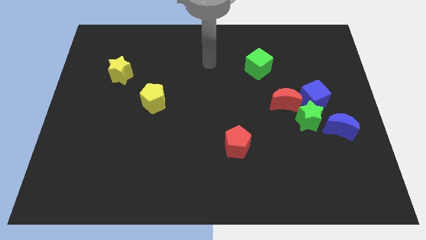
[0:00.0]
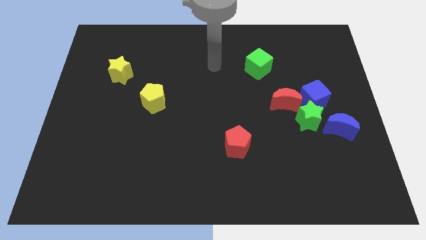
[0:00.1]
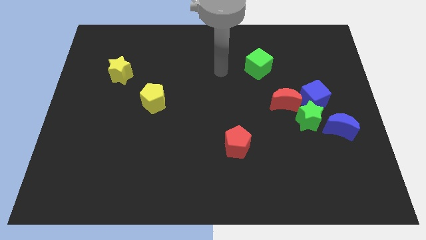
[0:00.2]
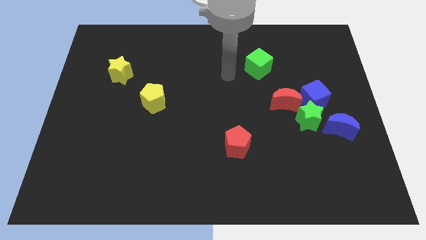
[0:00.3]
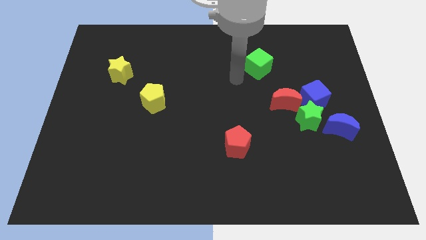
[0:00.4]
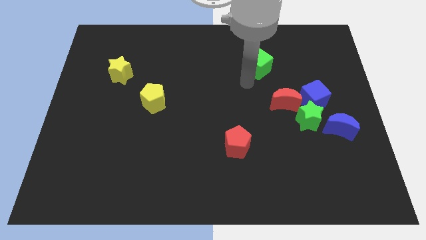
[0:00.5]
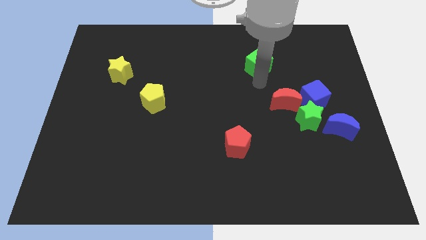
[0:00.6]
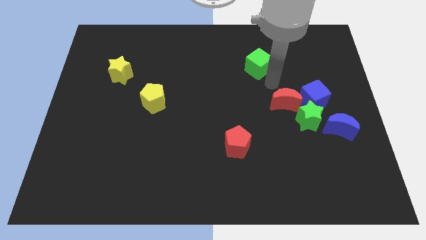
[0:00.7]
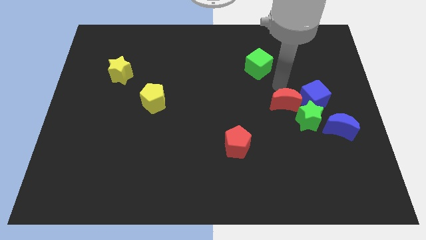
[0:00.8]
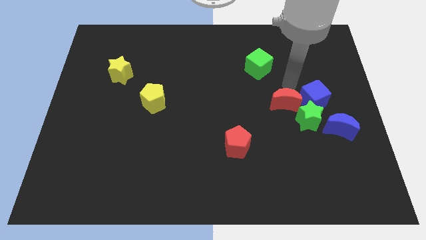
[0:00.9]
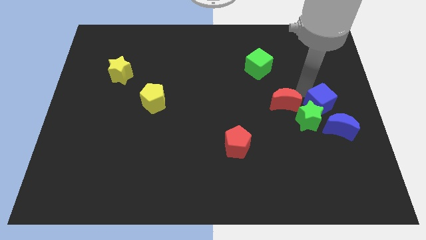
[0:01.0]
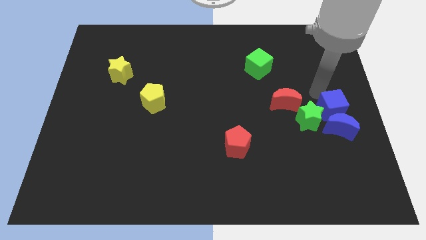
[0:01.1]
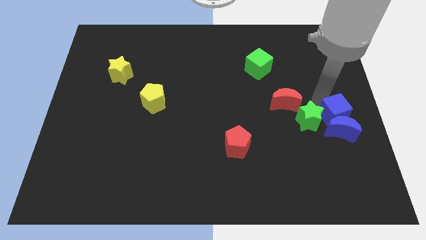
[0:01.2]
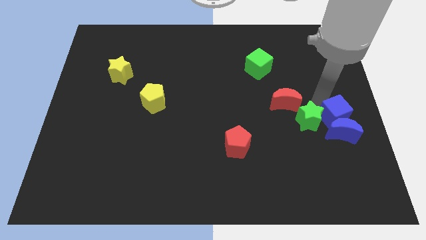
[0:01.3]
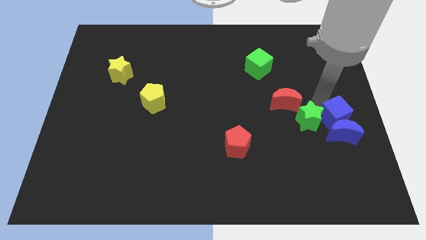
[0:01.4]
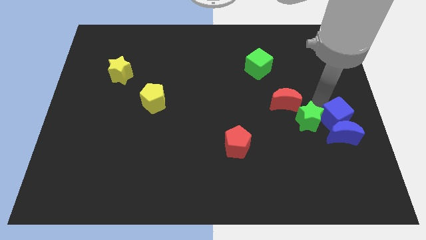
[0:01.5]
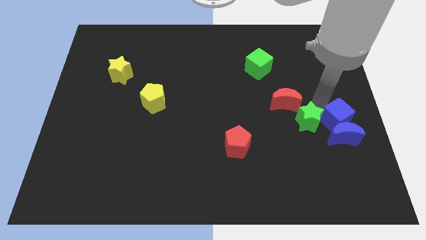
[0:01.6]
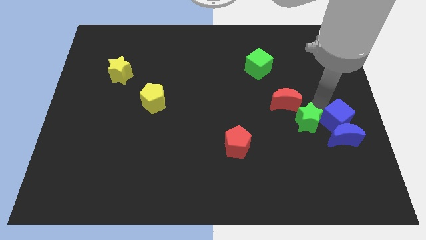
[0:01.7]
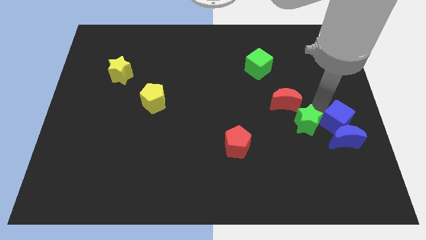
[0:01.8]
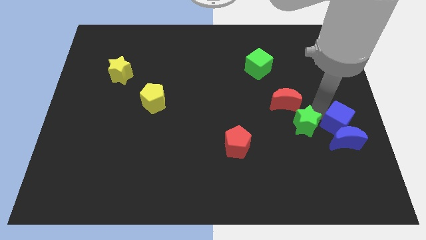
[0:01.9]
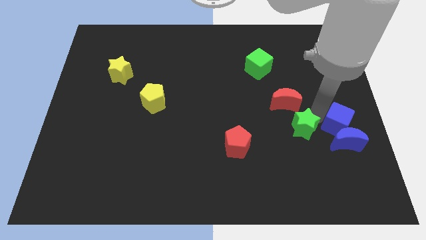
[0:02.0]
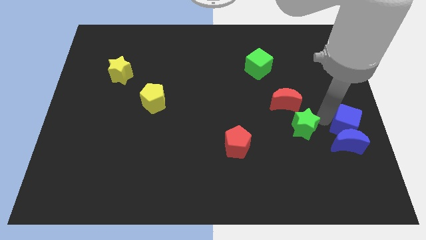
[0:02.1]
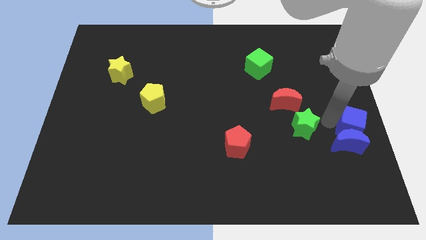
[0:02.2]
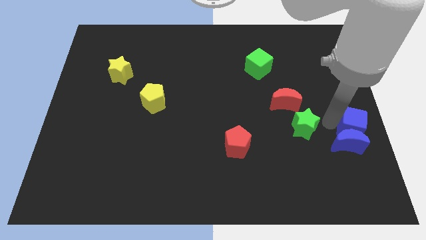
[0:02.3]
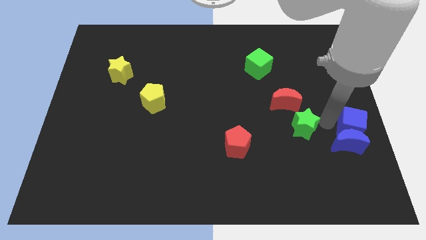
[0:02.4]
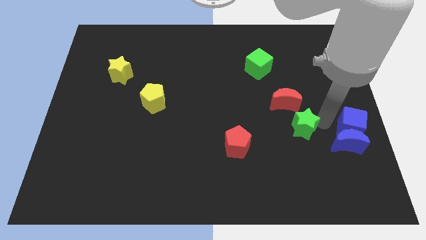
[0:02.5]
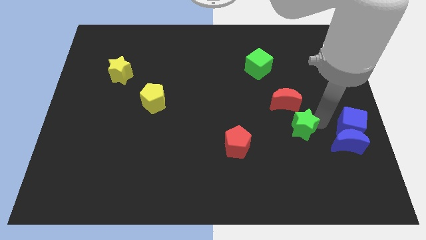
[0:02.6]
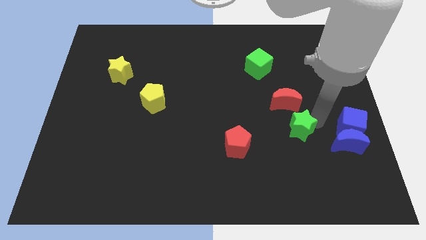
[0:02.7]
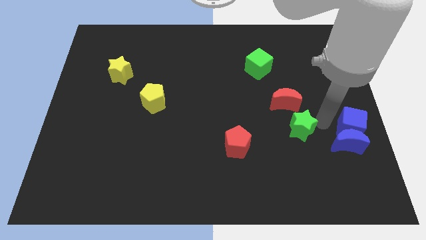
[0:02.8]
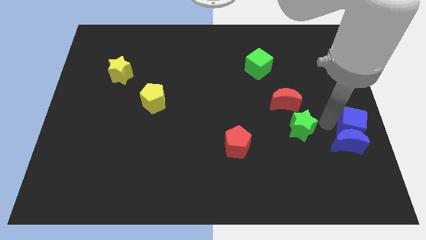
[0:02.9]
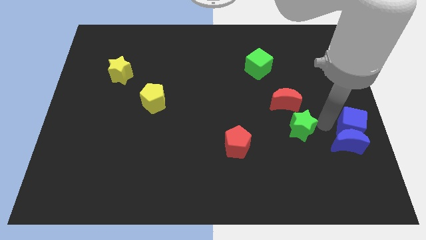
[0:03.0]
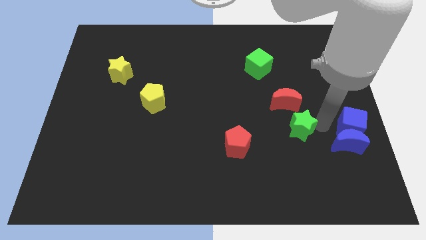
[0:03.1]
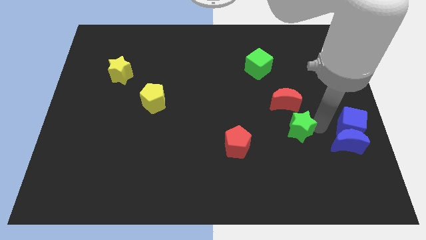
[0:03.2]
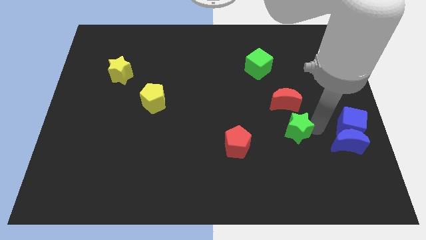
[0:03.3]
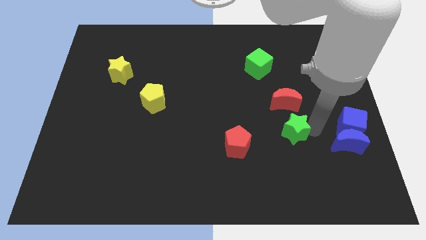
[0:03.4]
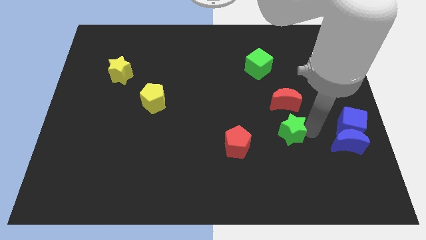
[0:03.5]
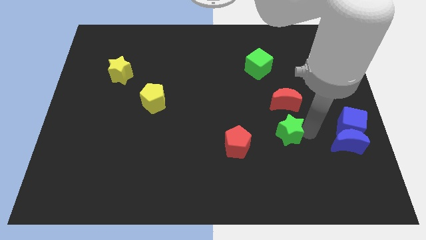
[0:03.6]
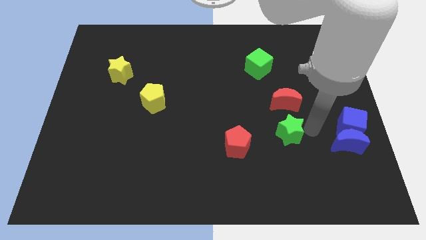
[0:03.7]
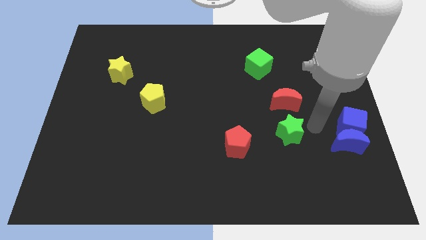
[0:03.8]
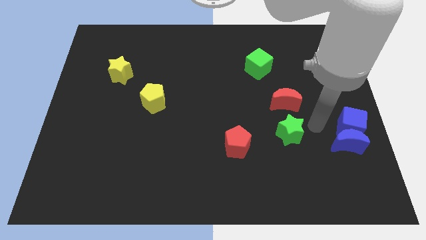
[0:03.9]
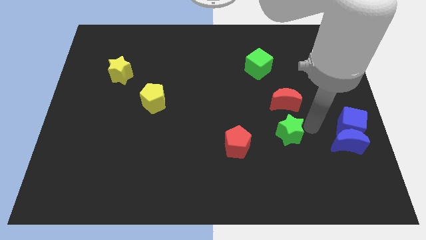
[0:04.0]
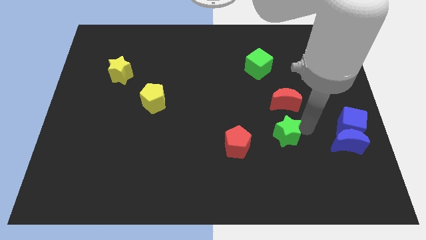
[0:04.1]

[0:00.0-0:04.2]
move the green star away from the blue cube, red moon, and blue moon

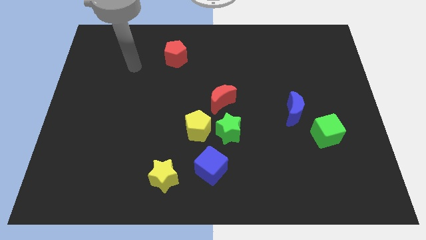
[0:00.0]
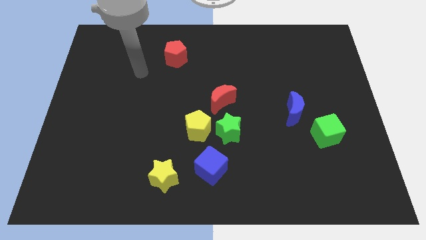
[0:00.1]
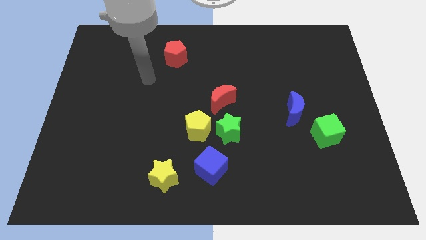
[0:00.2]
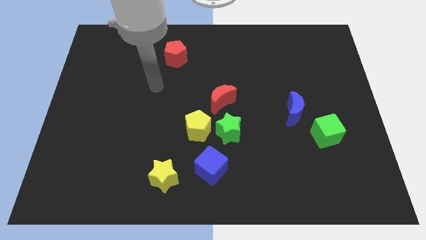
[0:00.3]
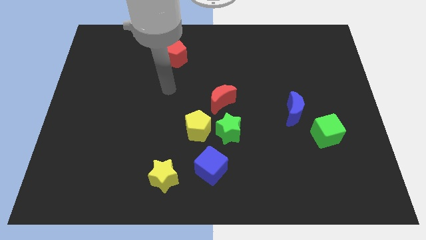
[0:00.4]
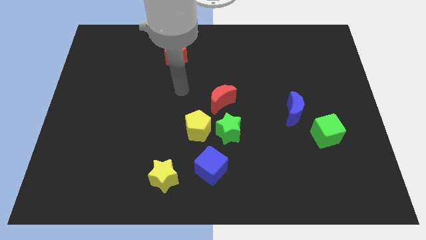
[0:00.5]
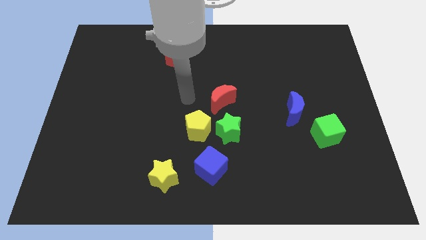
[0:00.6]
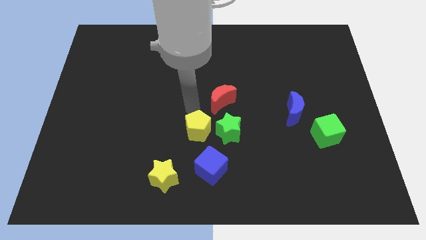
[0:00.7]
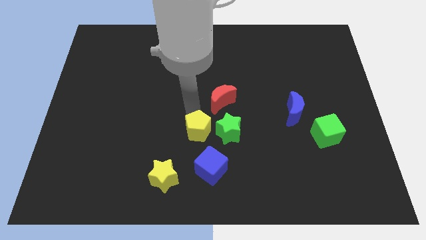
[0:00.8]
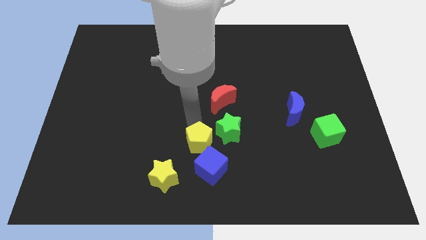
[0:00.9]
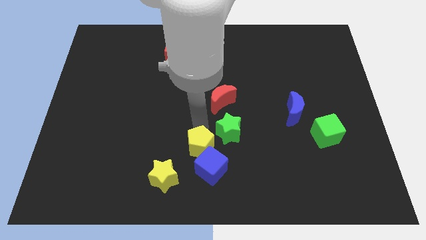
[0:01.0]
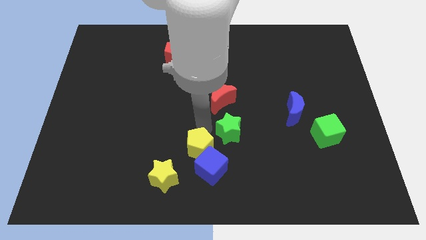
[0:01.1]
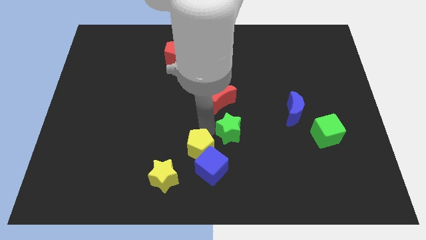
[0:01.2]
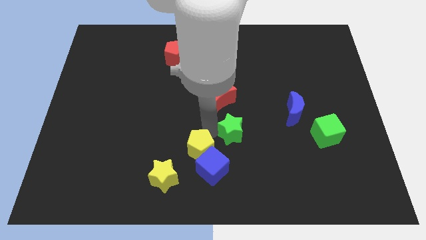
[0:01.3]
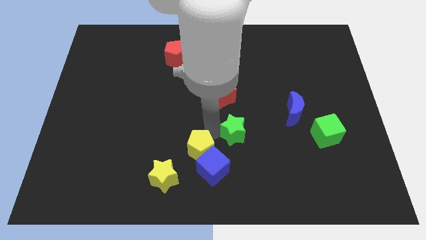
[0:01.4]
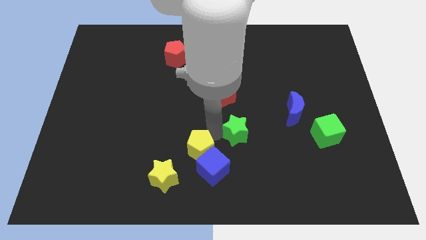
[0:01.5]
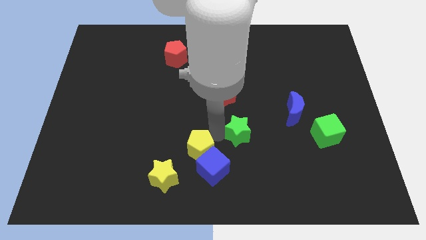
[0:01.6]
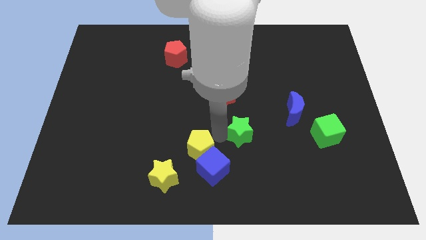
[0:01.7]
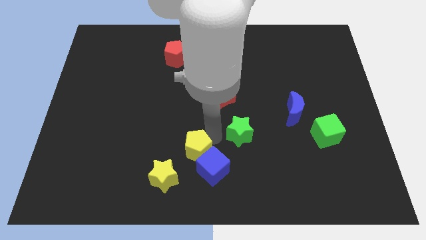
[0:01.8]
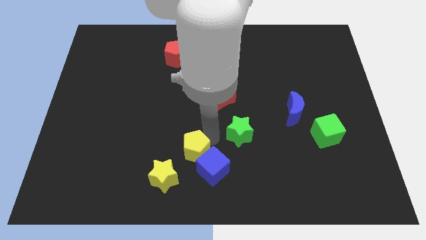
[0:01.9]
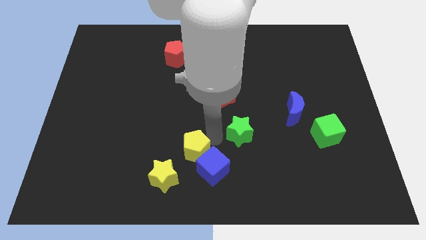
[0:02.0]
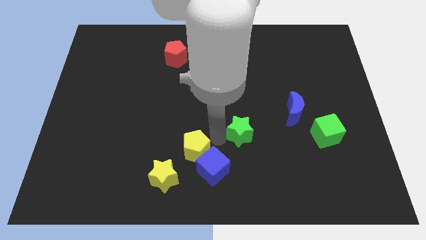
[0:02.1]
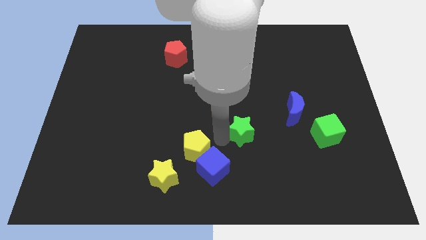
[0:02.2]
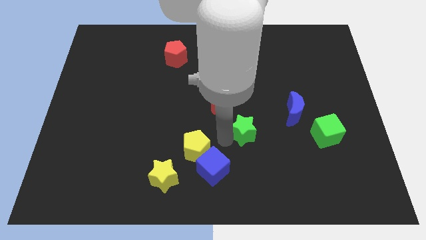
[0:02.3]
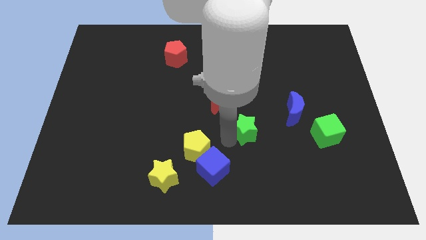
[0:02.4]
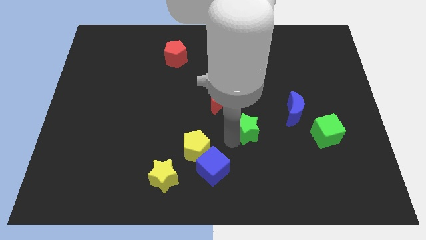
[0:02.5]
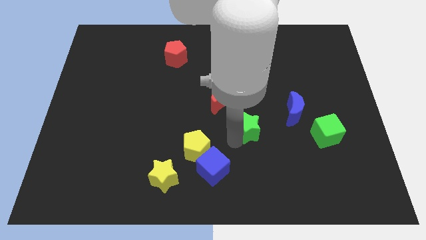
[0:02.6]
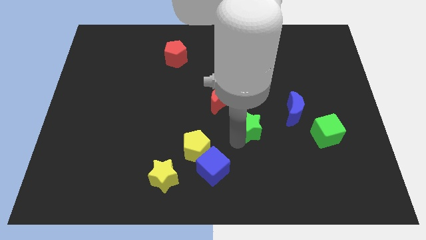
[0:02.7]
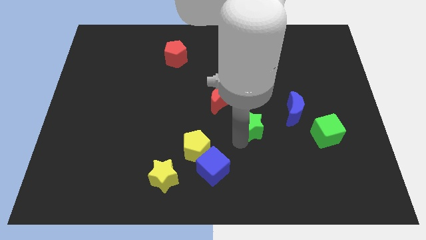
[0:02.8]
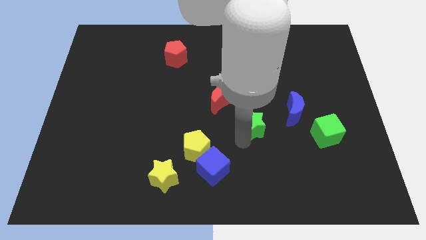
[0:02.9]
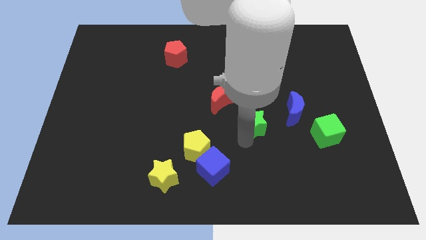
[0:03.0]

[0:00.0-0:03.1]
separate the green star from the yellow pentagon, red moon, and blue cube

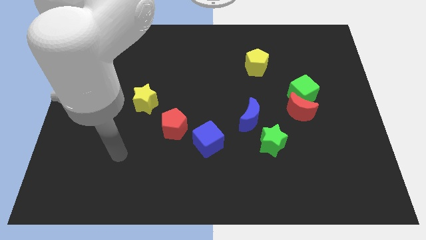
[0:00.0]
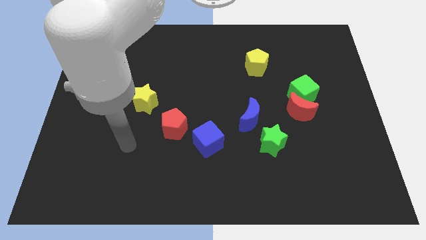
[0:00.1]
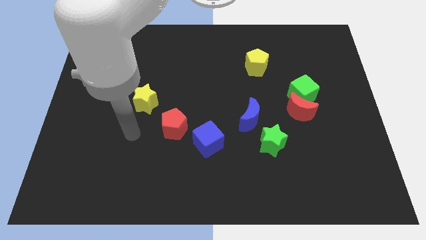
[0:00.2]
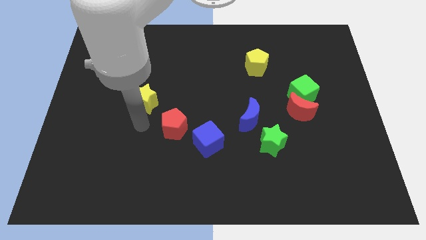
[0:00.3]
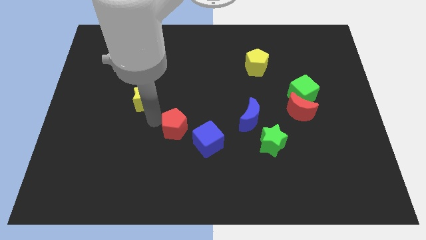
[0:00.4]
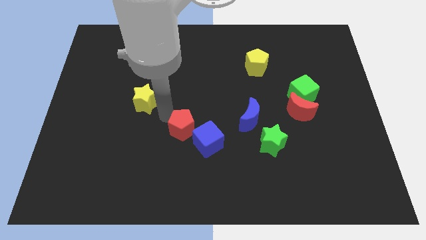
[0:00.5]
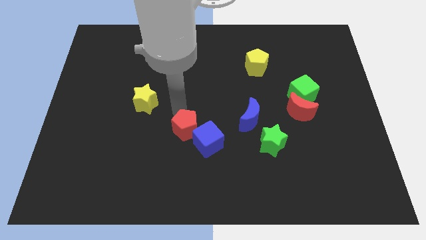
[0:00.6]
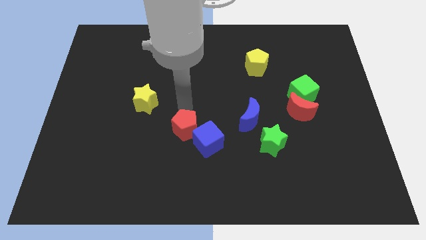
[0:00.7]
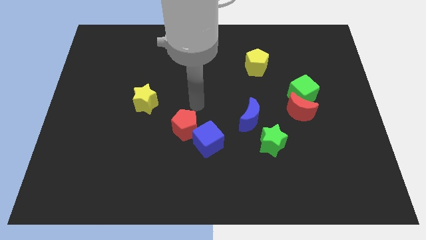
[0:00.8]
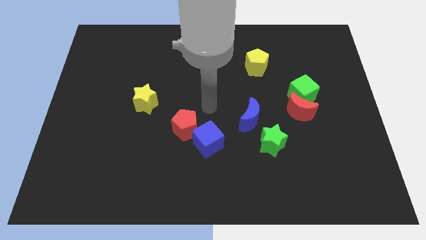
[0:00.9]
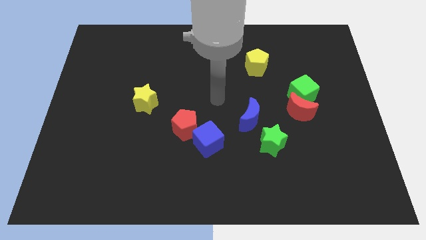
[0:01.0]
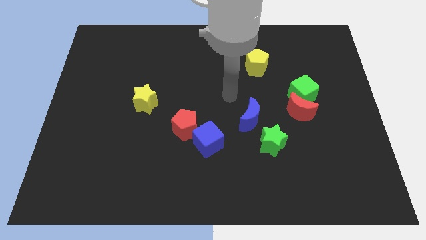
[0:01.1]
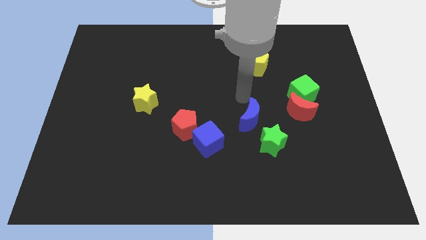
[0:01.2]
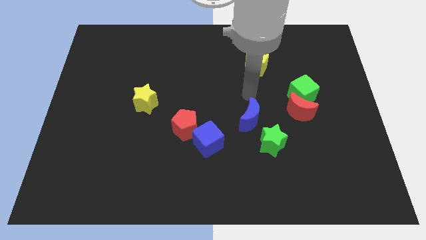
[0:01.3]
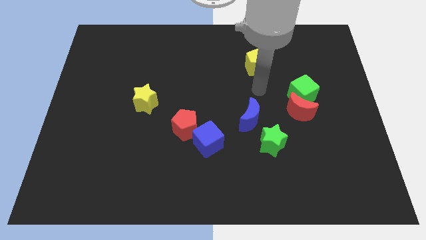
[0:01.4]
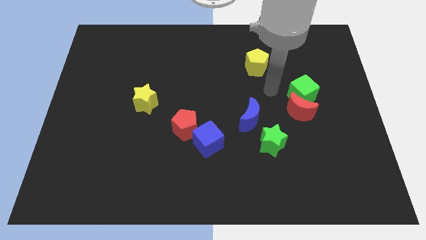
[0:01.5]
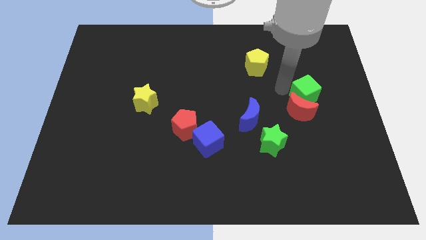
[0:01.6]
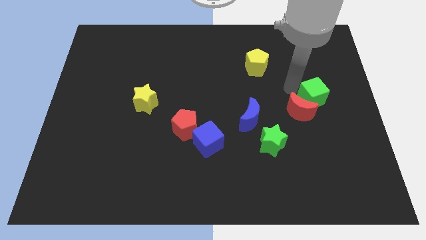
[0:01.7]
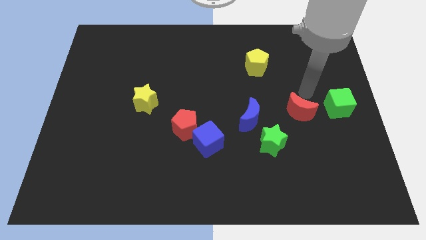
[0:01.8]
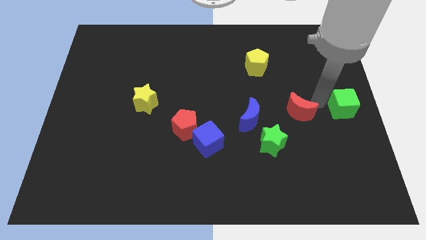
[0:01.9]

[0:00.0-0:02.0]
separate the red moon from the green cube

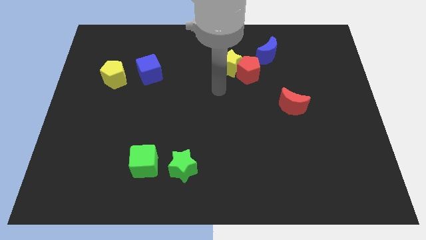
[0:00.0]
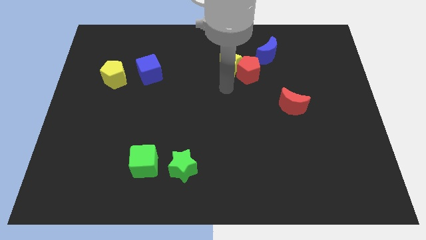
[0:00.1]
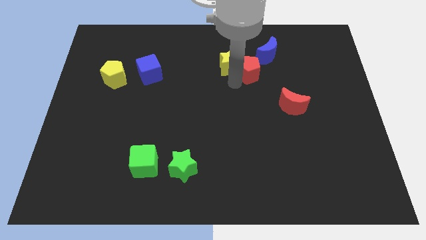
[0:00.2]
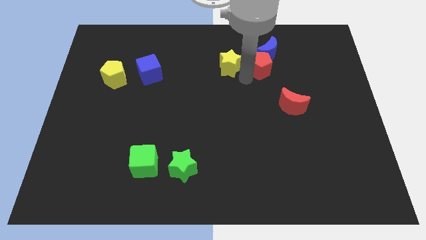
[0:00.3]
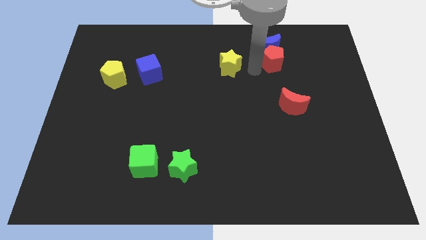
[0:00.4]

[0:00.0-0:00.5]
move the yellow star away from the red pentagon
